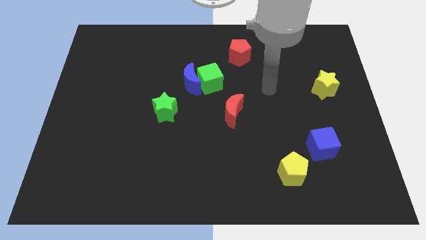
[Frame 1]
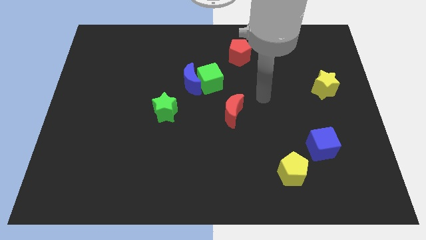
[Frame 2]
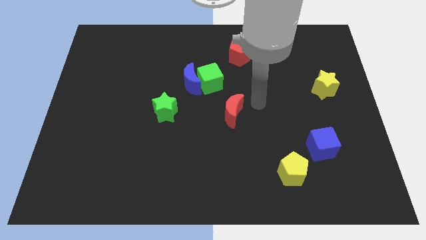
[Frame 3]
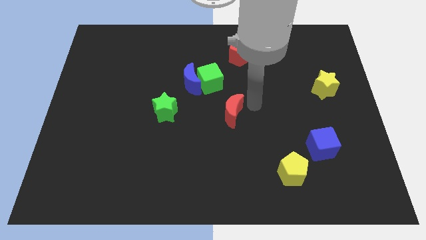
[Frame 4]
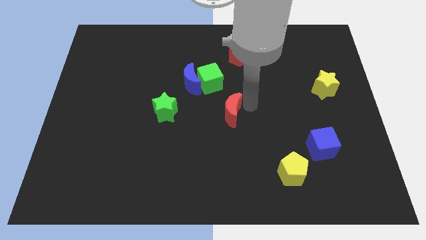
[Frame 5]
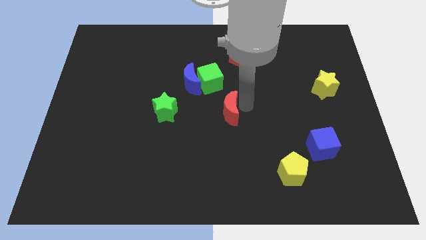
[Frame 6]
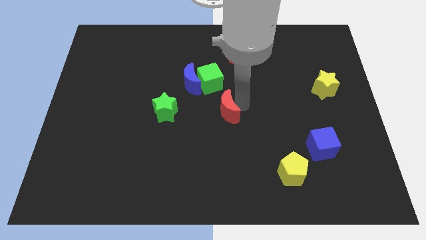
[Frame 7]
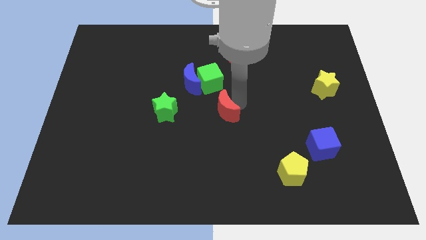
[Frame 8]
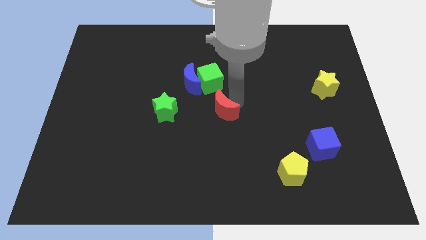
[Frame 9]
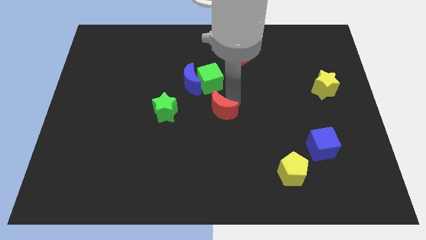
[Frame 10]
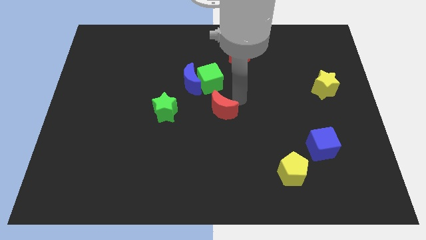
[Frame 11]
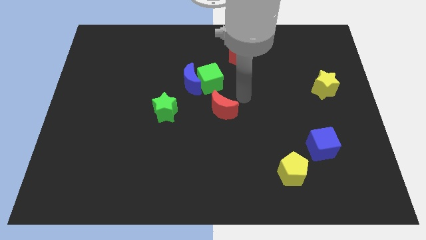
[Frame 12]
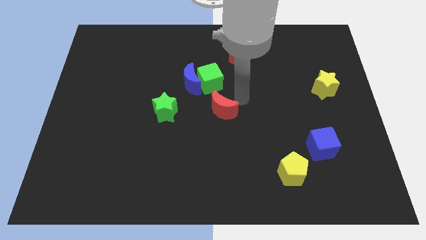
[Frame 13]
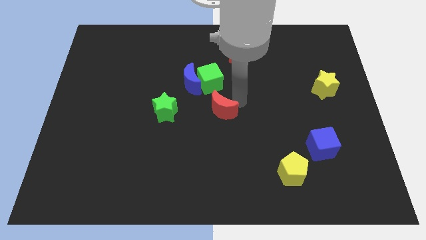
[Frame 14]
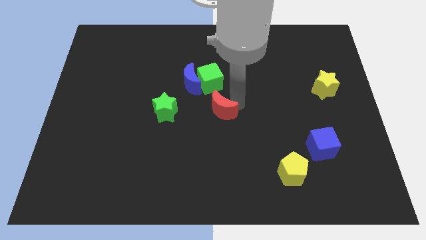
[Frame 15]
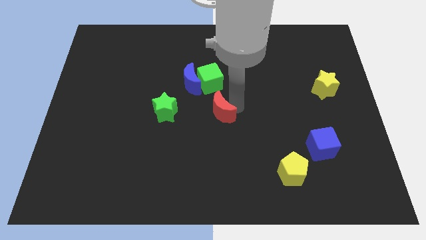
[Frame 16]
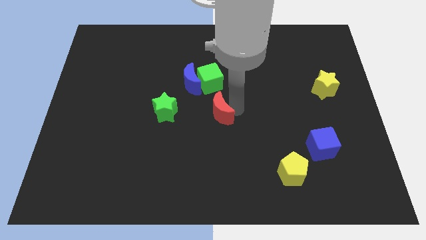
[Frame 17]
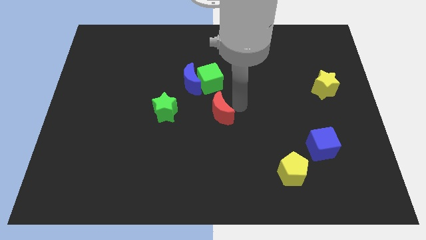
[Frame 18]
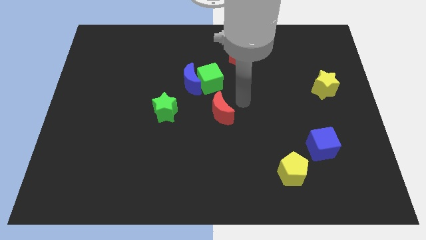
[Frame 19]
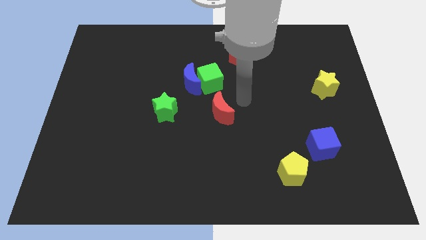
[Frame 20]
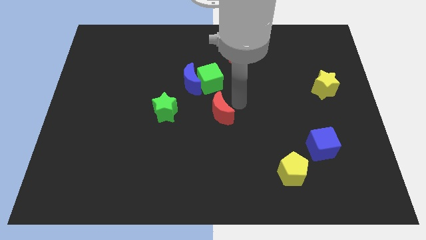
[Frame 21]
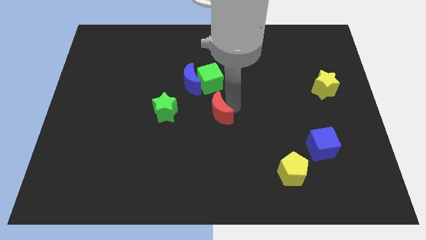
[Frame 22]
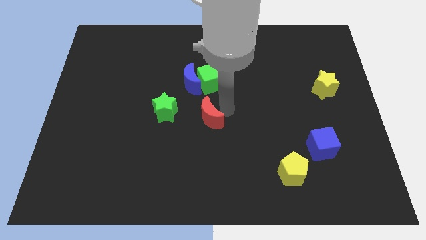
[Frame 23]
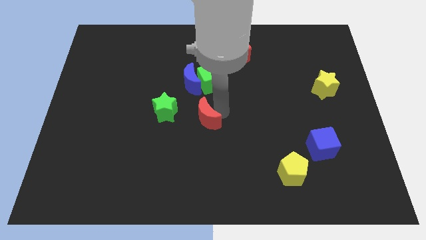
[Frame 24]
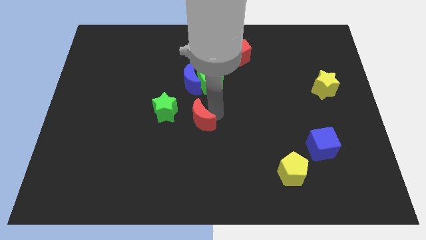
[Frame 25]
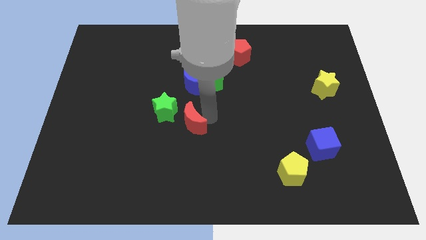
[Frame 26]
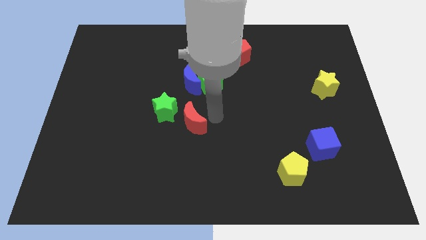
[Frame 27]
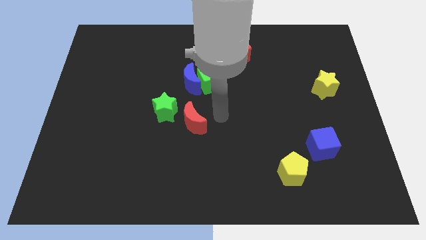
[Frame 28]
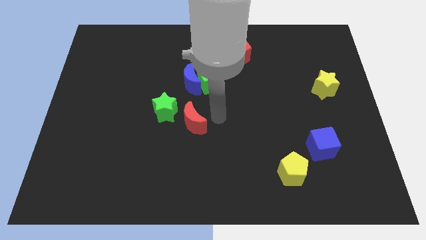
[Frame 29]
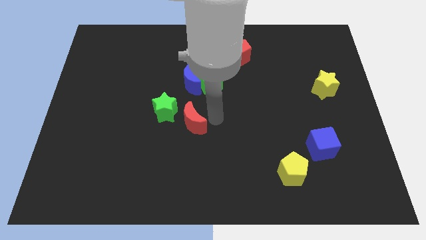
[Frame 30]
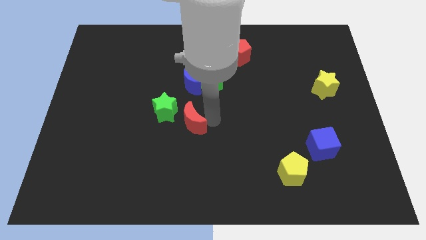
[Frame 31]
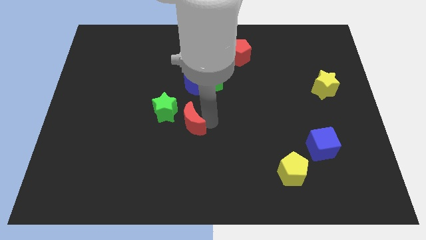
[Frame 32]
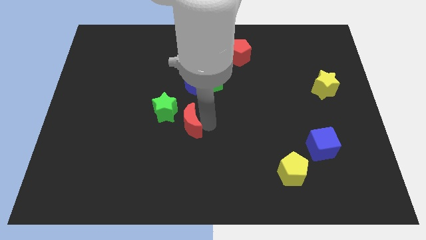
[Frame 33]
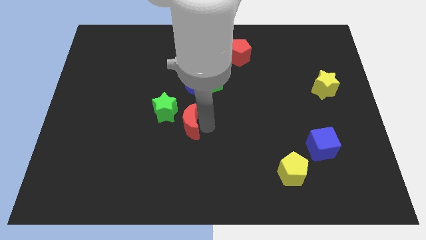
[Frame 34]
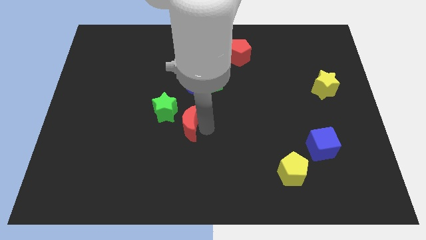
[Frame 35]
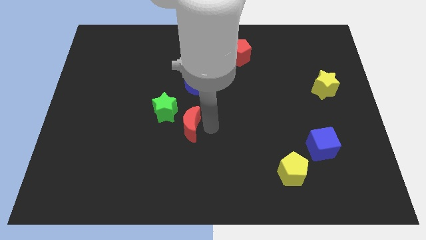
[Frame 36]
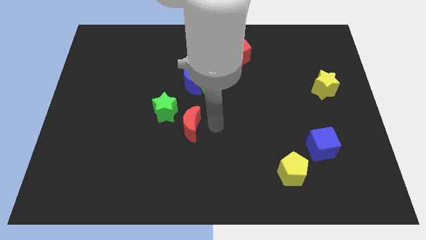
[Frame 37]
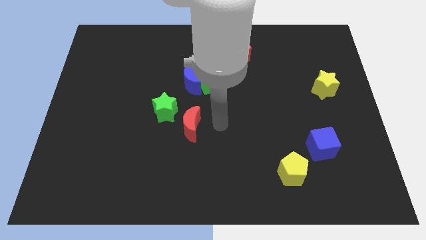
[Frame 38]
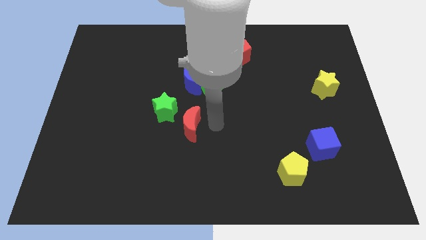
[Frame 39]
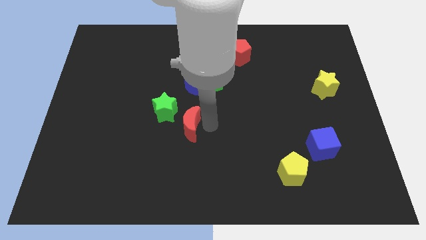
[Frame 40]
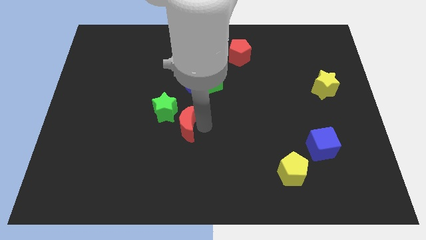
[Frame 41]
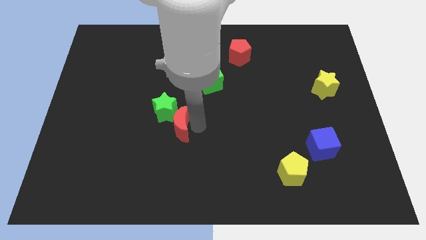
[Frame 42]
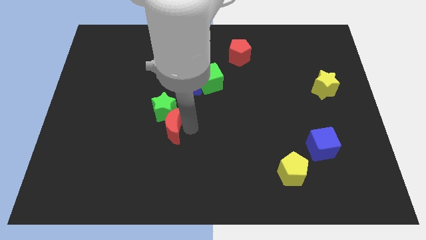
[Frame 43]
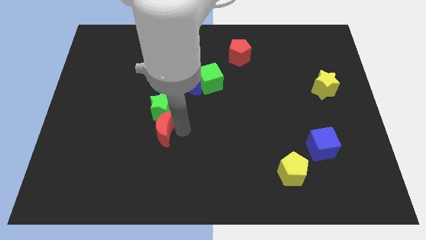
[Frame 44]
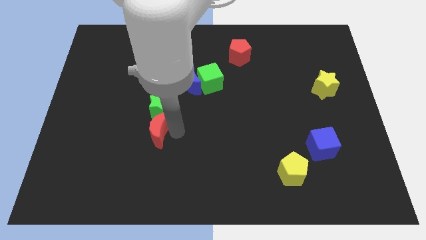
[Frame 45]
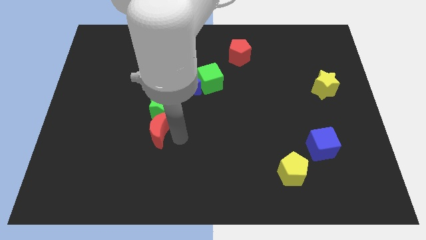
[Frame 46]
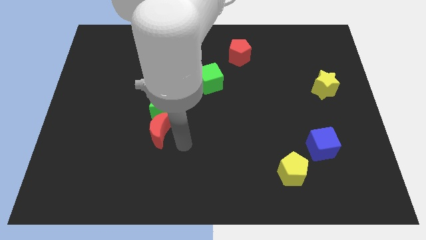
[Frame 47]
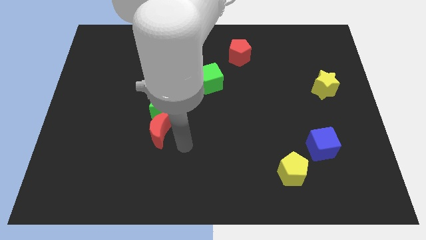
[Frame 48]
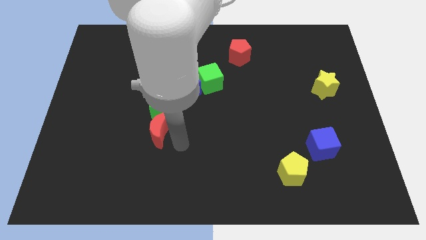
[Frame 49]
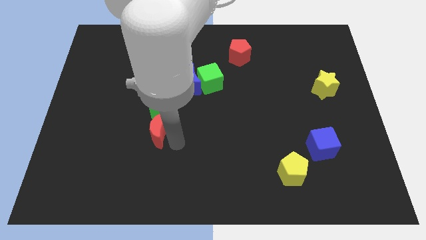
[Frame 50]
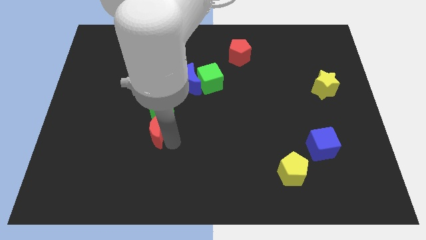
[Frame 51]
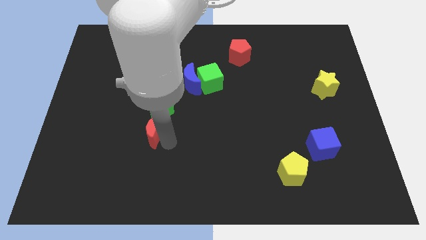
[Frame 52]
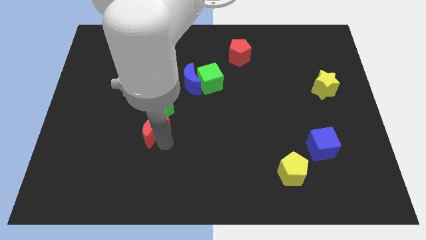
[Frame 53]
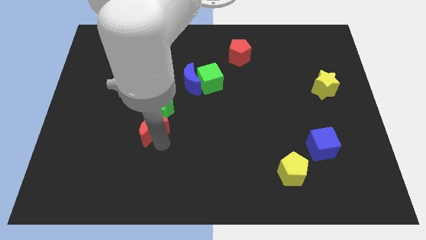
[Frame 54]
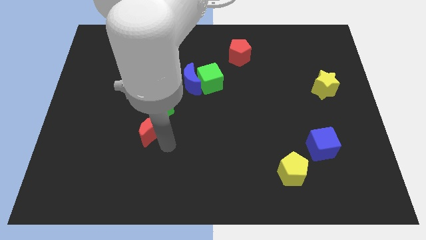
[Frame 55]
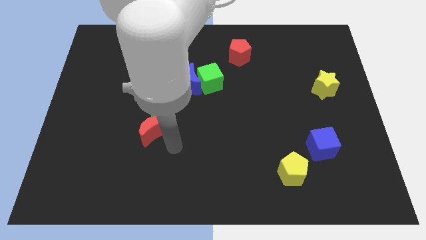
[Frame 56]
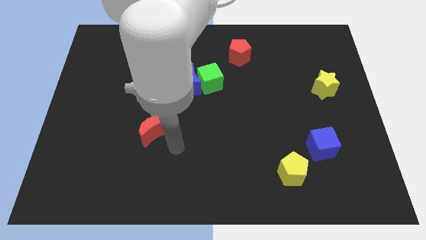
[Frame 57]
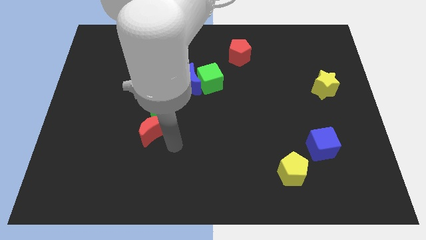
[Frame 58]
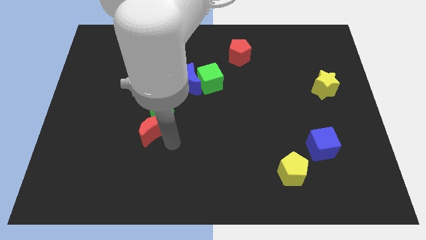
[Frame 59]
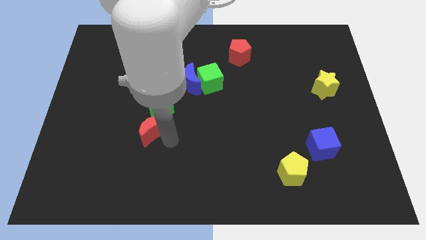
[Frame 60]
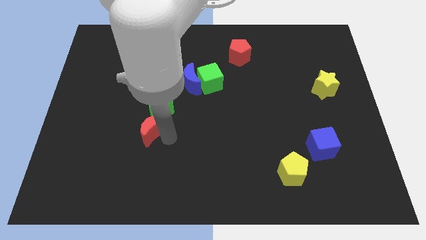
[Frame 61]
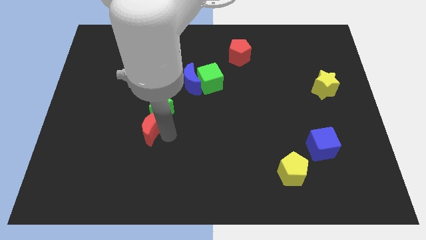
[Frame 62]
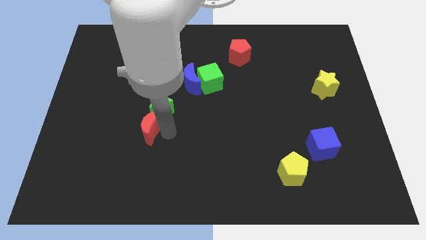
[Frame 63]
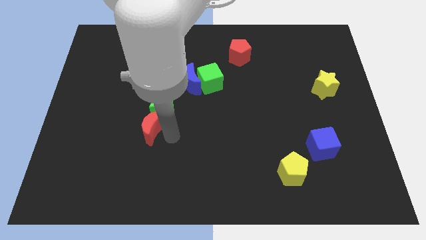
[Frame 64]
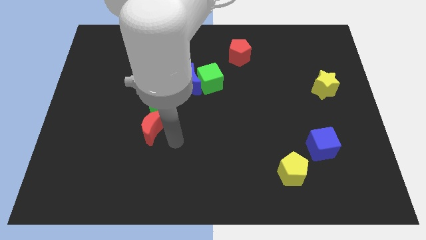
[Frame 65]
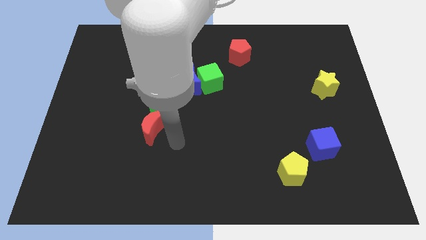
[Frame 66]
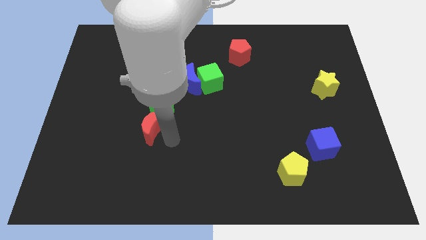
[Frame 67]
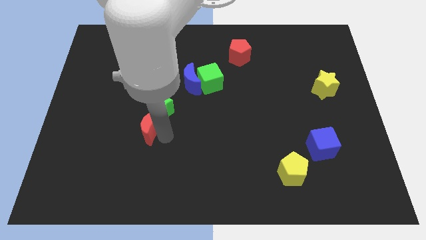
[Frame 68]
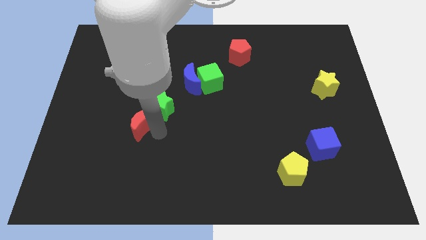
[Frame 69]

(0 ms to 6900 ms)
push the red moon to the left

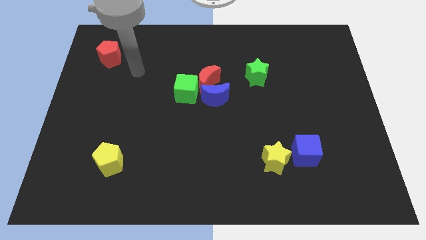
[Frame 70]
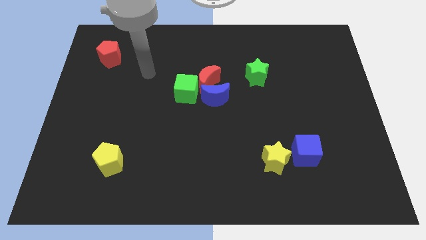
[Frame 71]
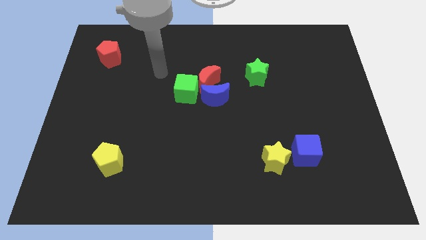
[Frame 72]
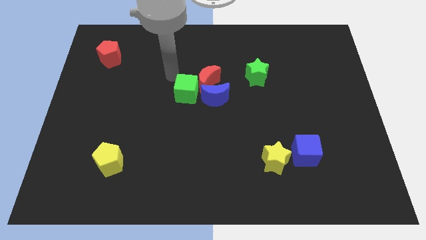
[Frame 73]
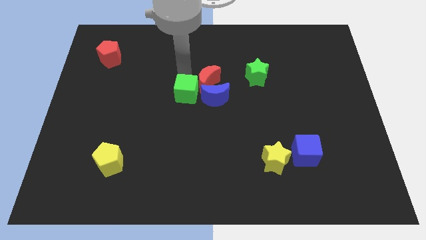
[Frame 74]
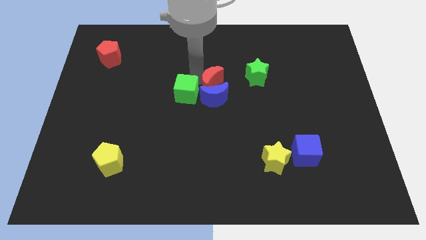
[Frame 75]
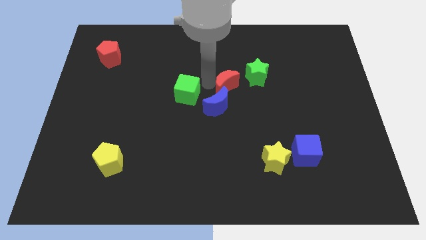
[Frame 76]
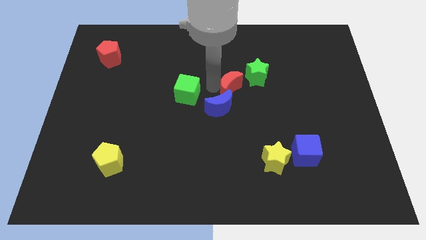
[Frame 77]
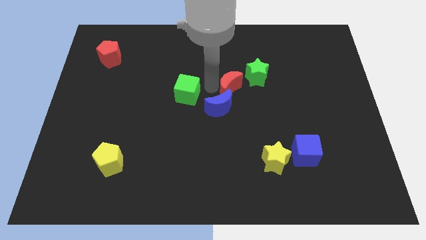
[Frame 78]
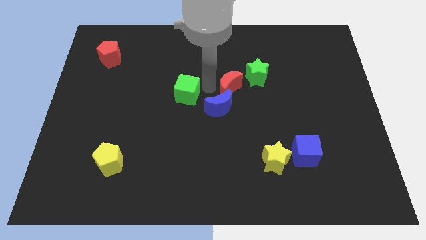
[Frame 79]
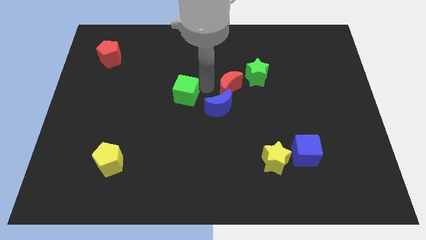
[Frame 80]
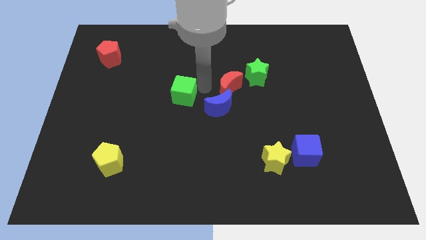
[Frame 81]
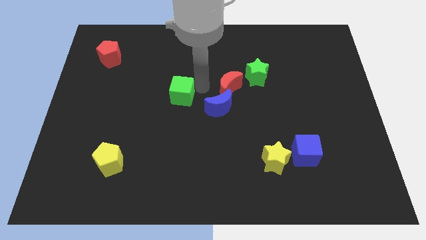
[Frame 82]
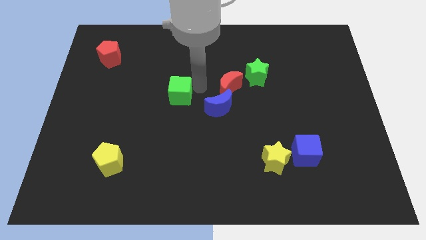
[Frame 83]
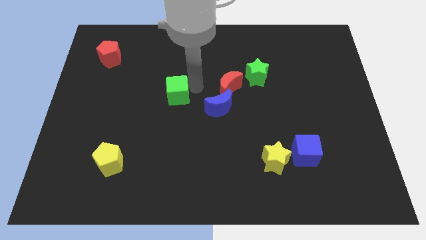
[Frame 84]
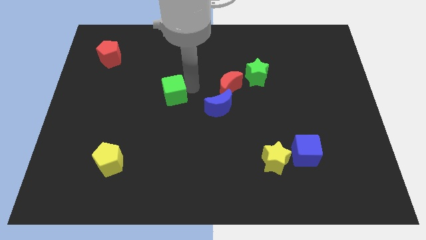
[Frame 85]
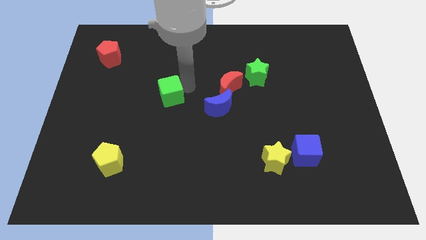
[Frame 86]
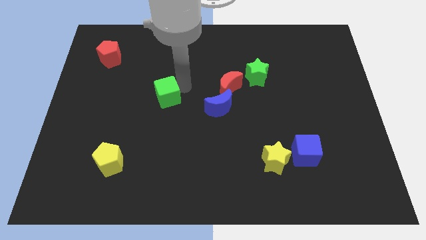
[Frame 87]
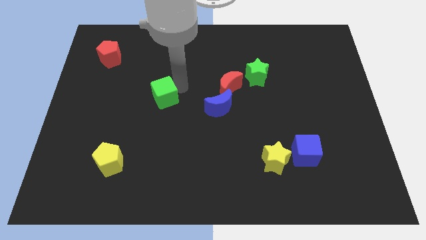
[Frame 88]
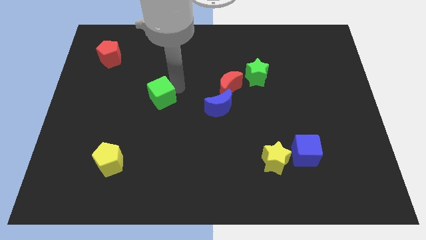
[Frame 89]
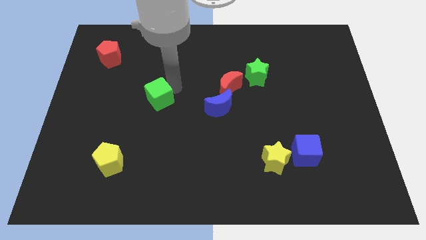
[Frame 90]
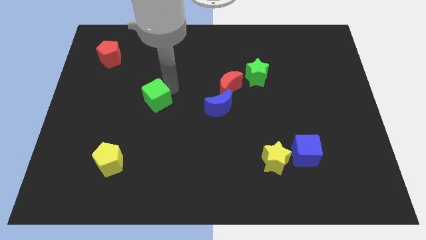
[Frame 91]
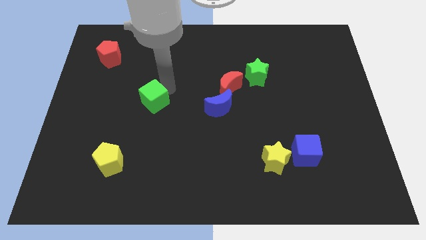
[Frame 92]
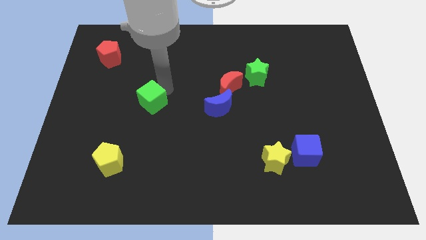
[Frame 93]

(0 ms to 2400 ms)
slightly move the green cube diagonally downwards and left
